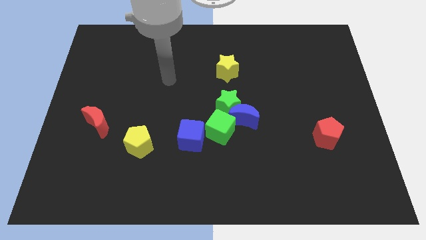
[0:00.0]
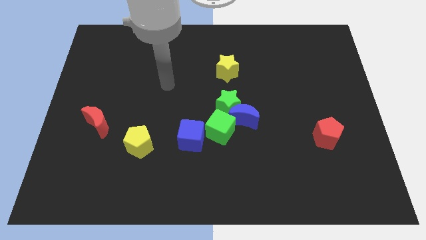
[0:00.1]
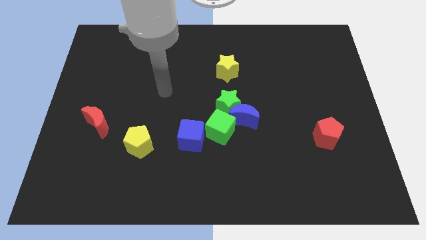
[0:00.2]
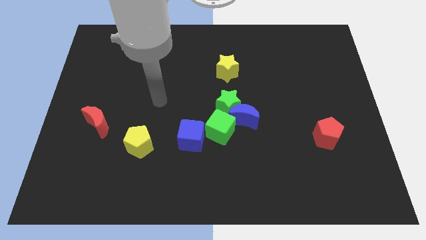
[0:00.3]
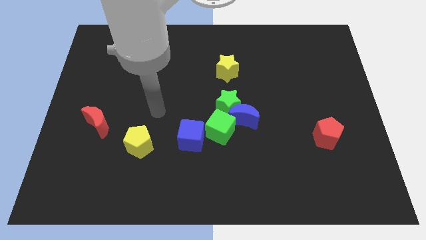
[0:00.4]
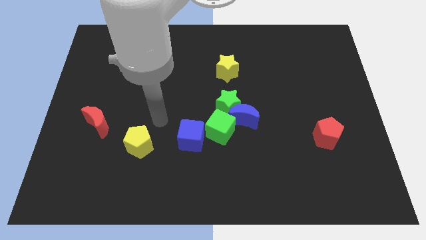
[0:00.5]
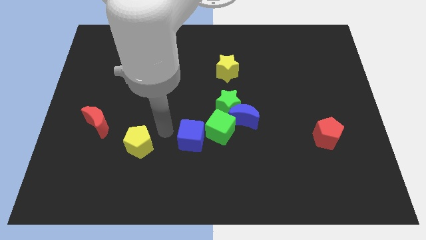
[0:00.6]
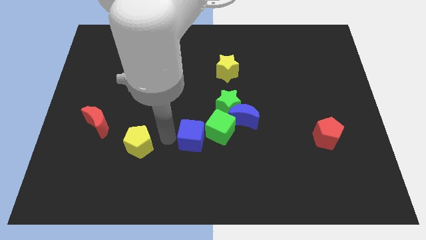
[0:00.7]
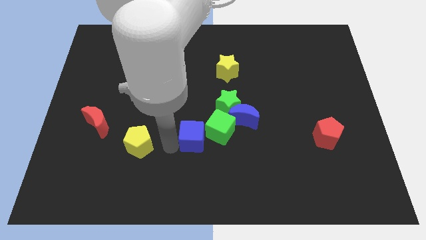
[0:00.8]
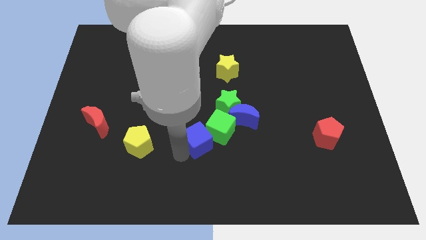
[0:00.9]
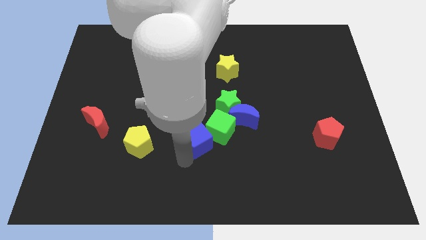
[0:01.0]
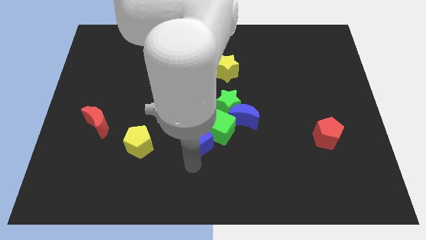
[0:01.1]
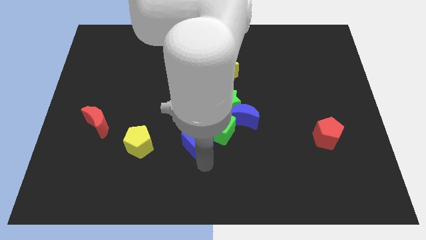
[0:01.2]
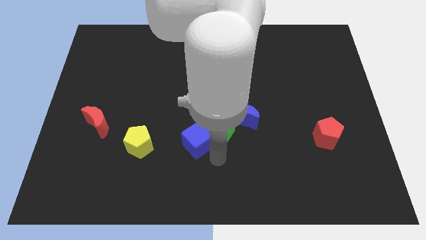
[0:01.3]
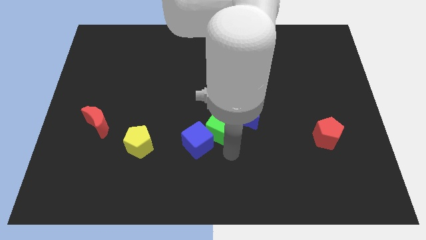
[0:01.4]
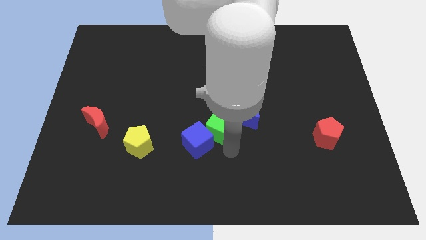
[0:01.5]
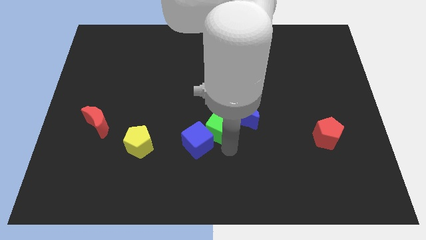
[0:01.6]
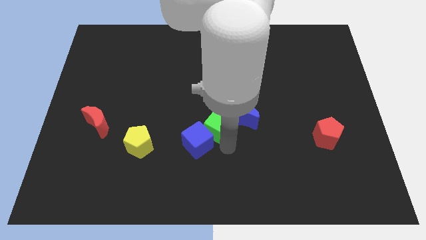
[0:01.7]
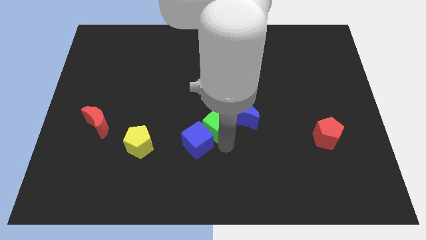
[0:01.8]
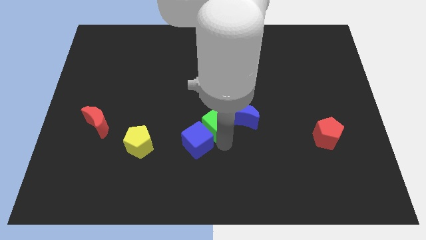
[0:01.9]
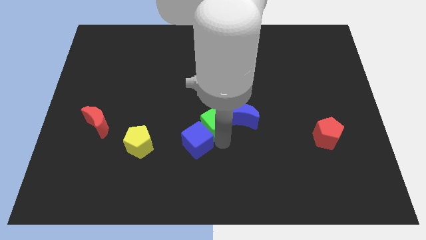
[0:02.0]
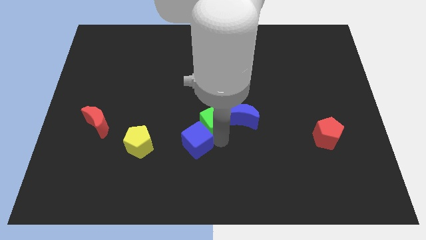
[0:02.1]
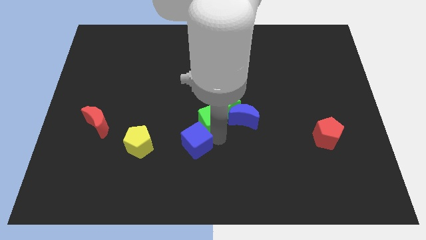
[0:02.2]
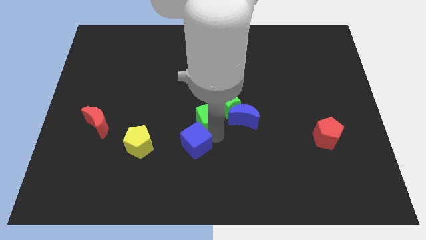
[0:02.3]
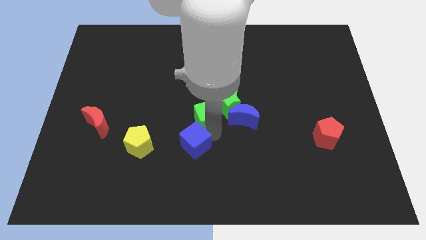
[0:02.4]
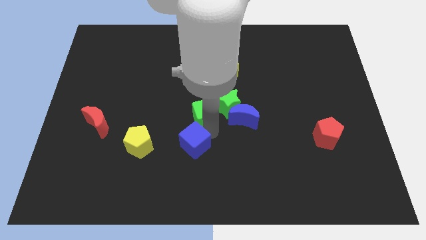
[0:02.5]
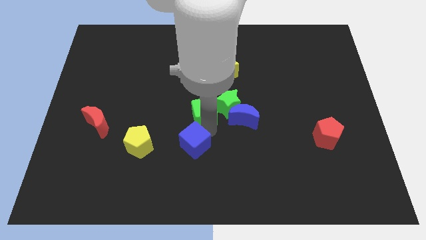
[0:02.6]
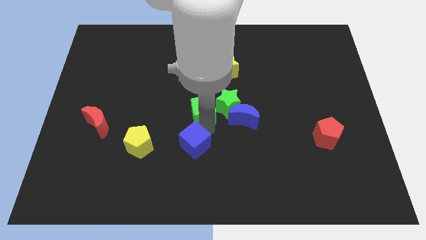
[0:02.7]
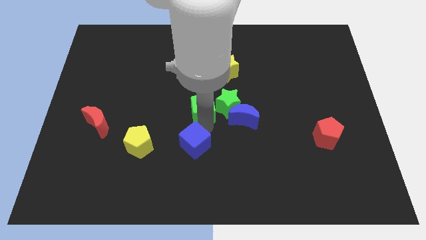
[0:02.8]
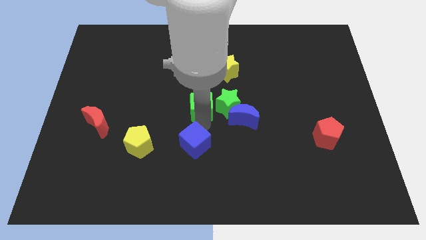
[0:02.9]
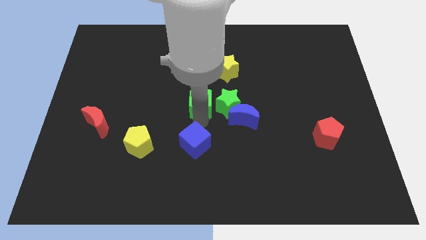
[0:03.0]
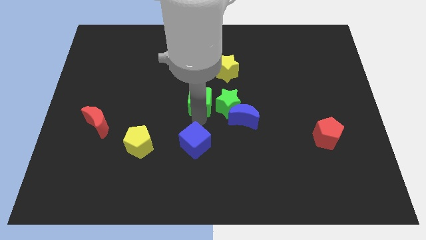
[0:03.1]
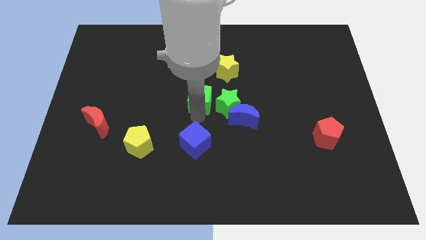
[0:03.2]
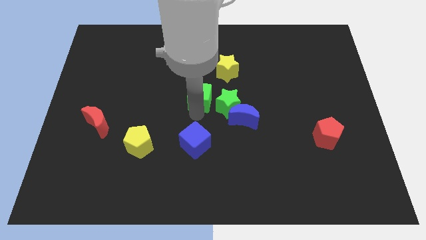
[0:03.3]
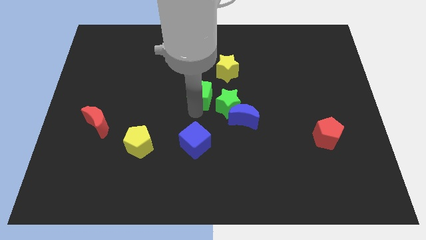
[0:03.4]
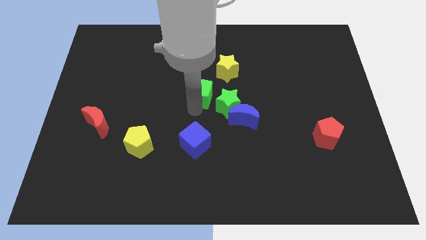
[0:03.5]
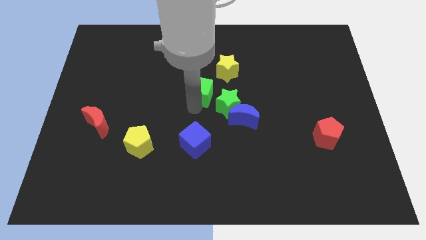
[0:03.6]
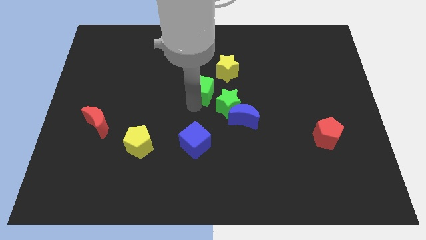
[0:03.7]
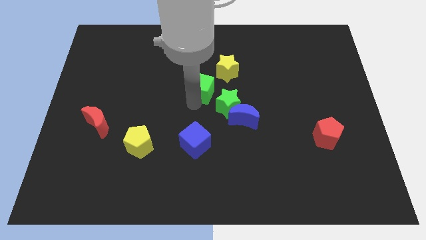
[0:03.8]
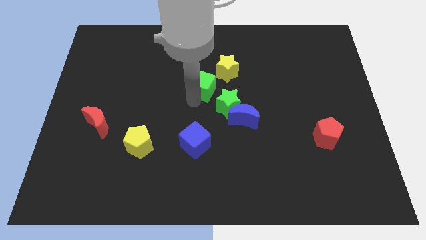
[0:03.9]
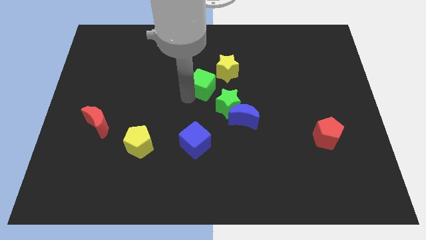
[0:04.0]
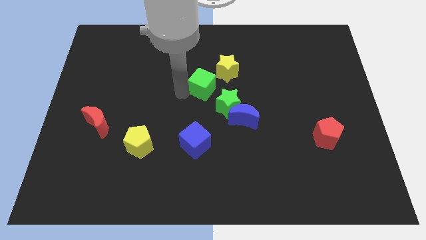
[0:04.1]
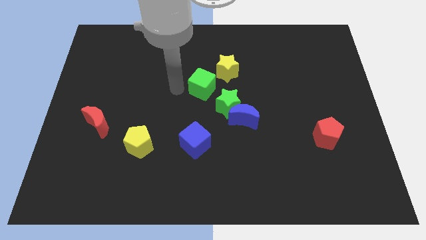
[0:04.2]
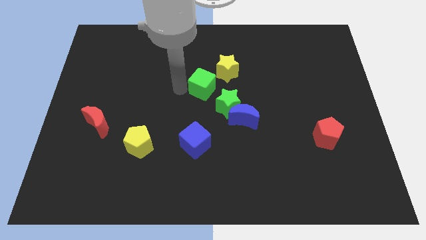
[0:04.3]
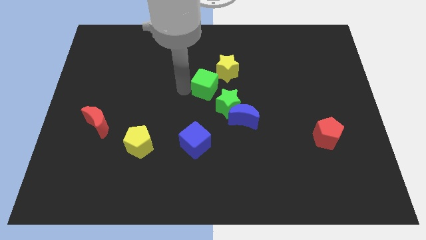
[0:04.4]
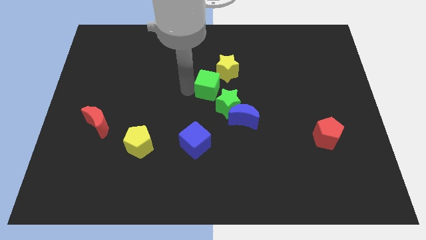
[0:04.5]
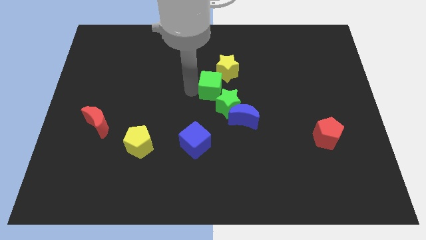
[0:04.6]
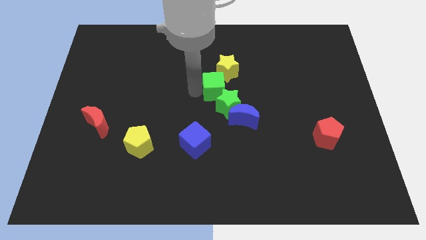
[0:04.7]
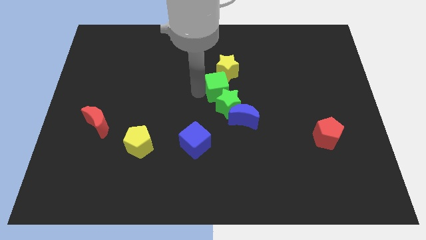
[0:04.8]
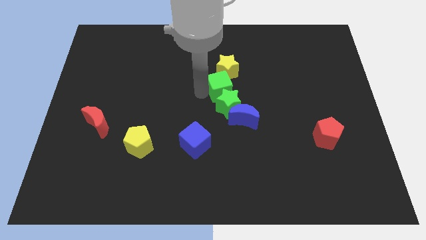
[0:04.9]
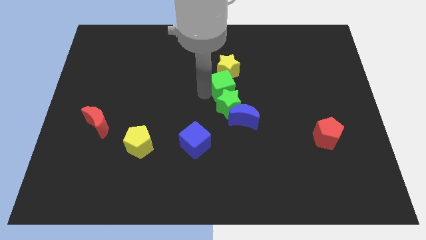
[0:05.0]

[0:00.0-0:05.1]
move the green cube above the blue moon

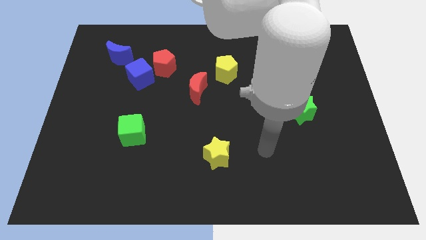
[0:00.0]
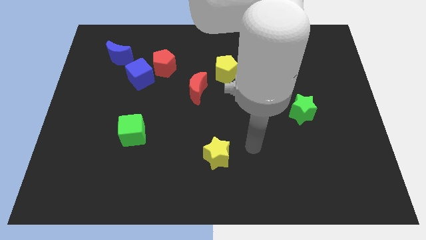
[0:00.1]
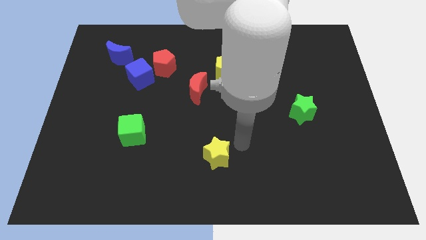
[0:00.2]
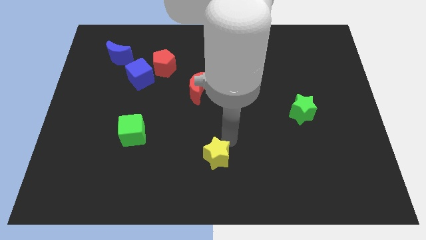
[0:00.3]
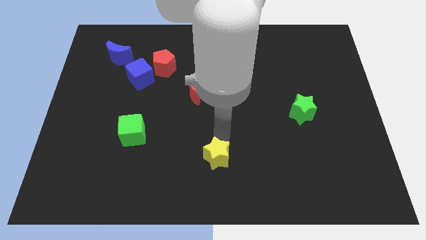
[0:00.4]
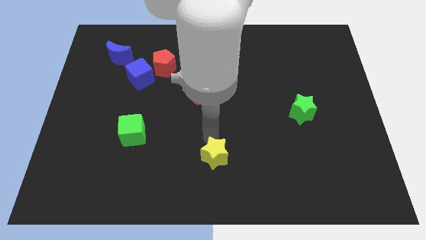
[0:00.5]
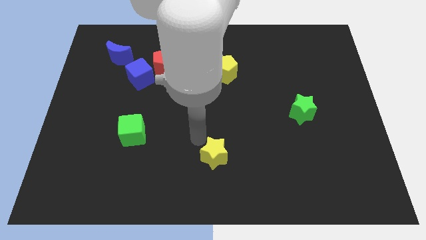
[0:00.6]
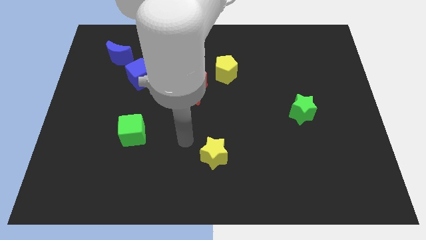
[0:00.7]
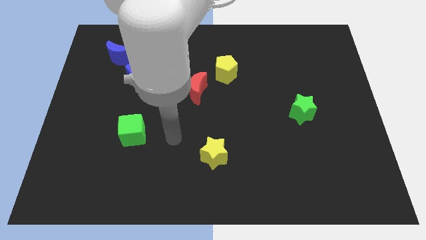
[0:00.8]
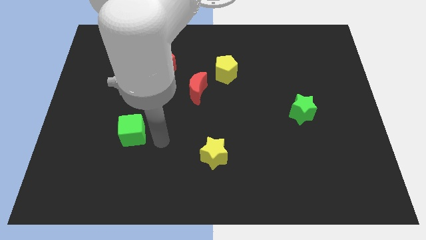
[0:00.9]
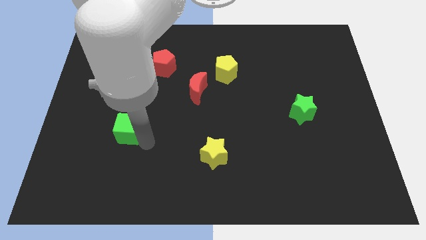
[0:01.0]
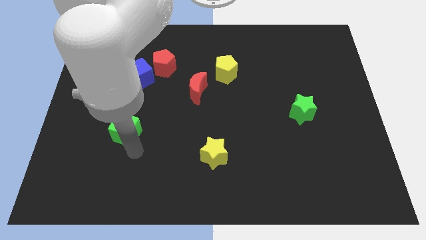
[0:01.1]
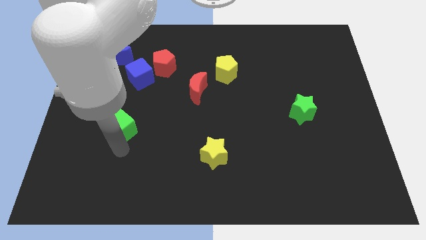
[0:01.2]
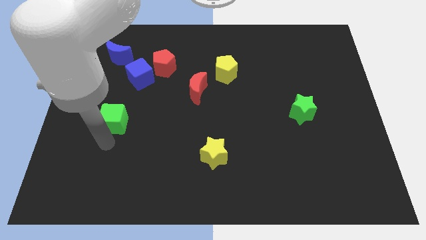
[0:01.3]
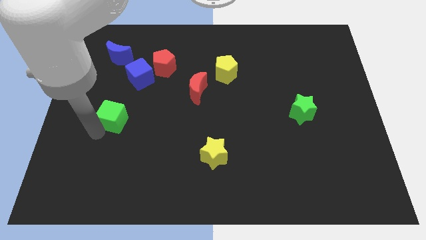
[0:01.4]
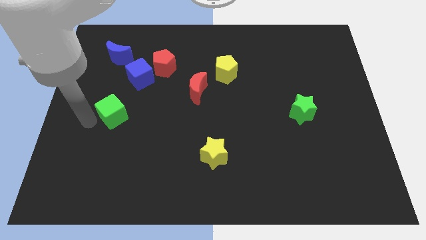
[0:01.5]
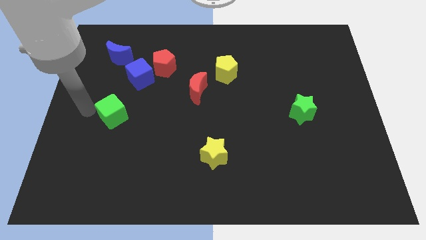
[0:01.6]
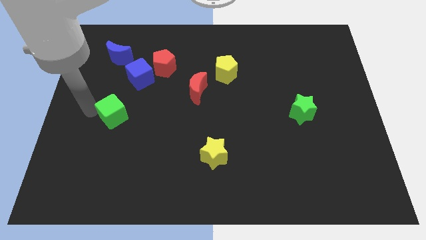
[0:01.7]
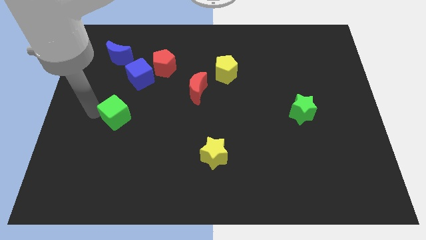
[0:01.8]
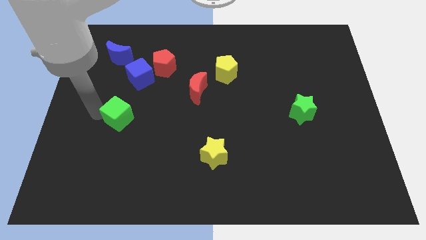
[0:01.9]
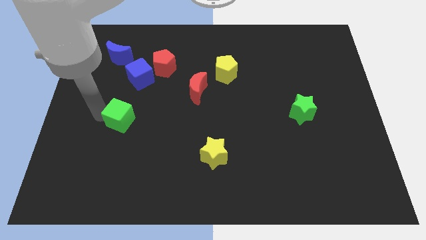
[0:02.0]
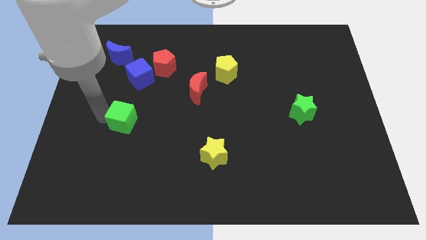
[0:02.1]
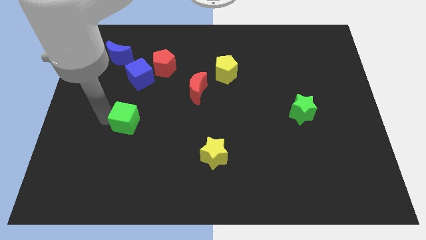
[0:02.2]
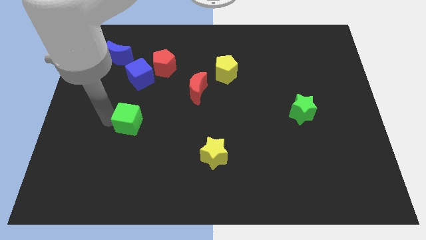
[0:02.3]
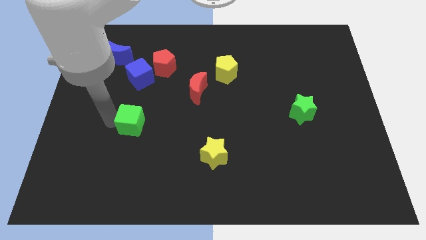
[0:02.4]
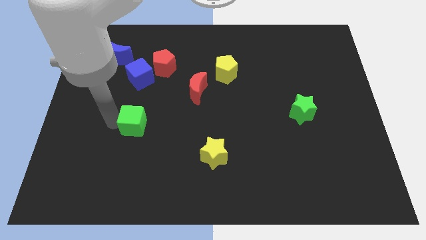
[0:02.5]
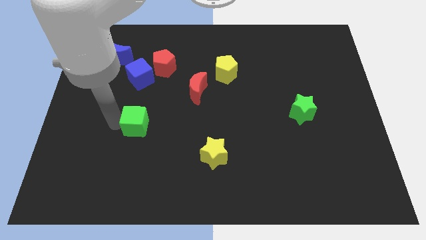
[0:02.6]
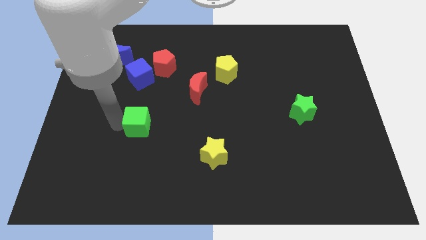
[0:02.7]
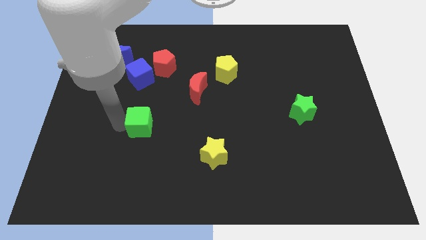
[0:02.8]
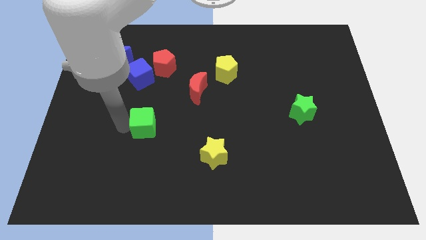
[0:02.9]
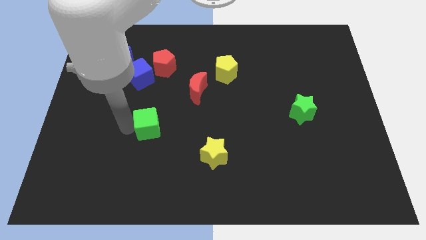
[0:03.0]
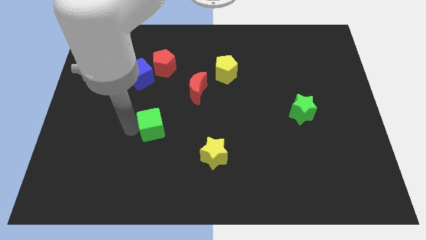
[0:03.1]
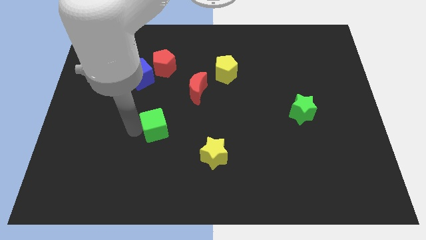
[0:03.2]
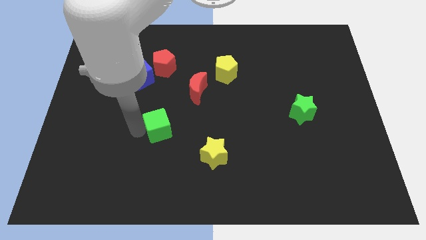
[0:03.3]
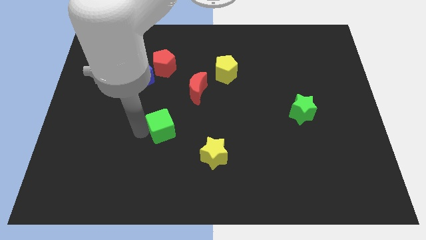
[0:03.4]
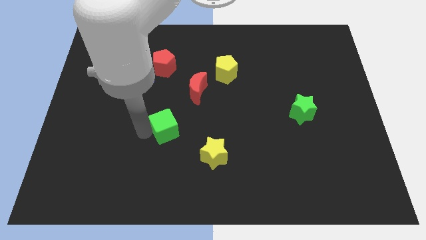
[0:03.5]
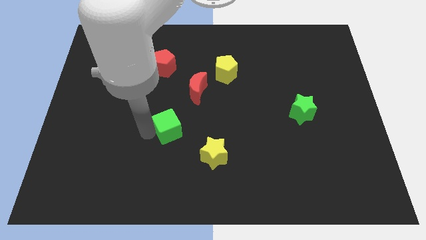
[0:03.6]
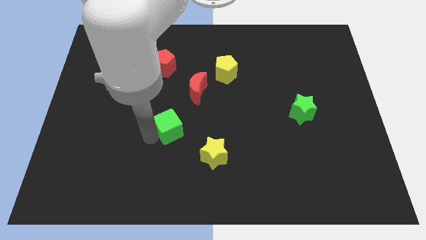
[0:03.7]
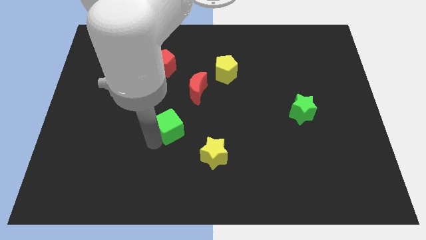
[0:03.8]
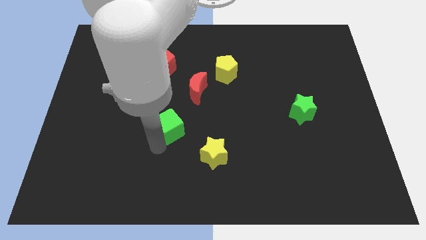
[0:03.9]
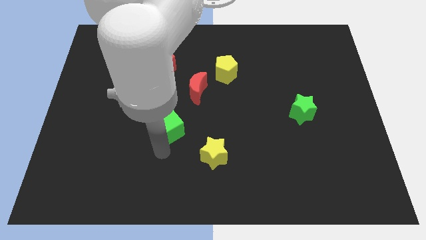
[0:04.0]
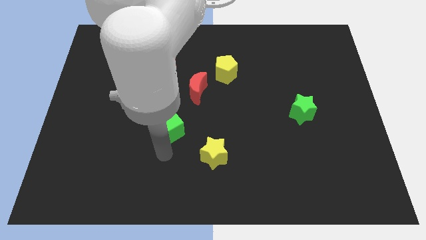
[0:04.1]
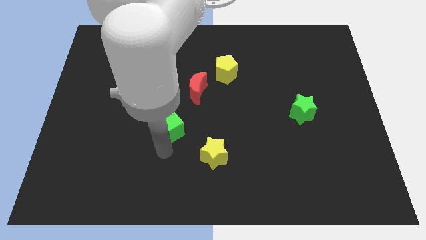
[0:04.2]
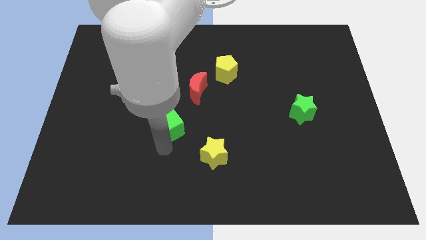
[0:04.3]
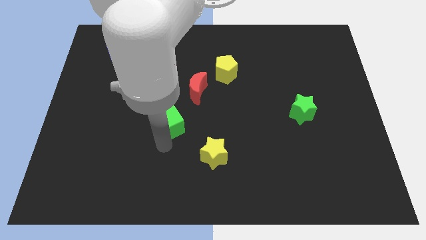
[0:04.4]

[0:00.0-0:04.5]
move the green cube to the bottom left side of the red moon
